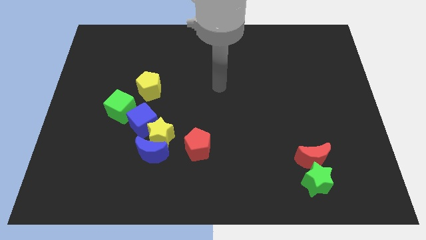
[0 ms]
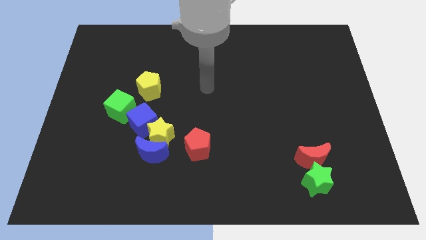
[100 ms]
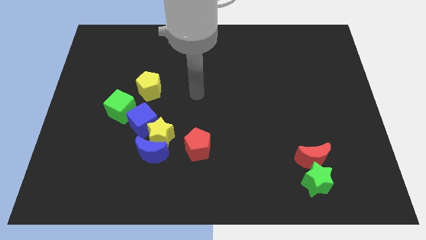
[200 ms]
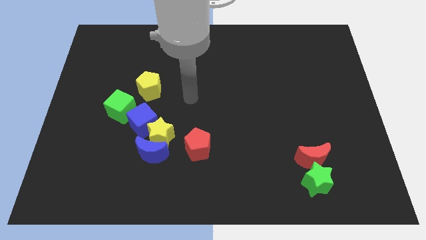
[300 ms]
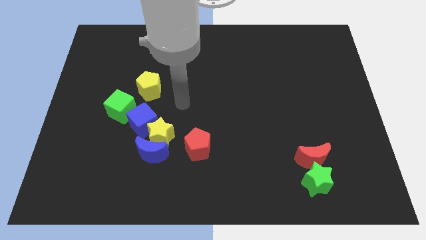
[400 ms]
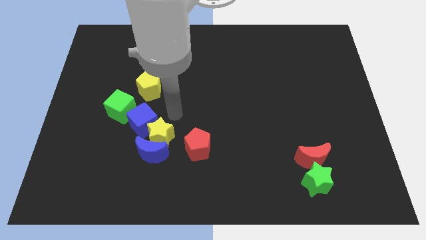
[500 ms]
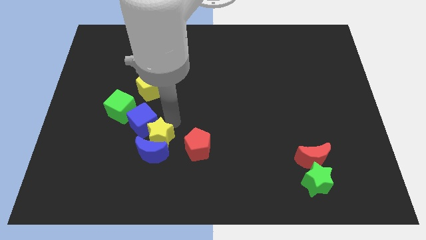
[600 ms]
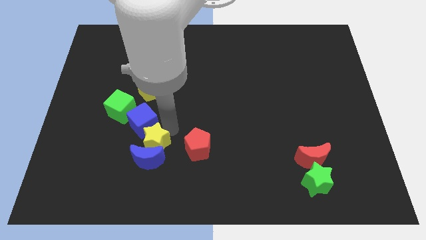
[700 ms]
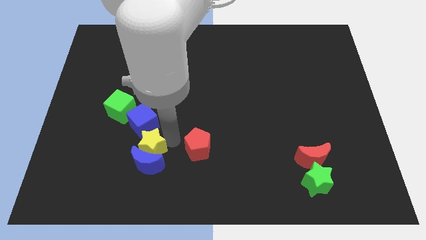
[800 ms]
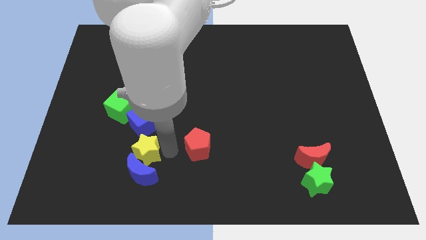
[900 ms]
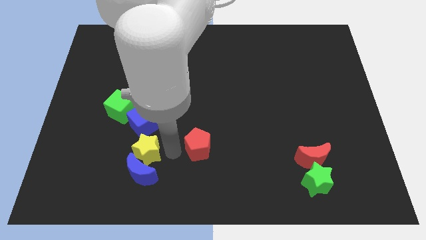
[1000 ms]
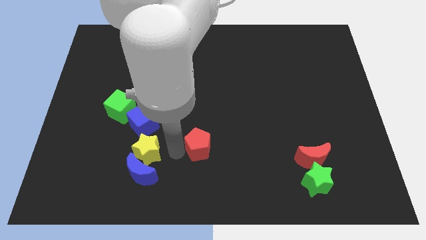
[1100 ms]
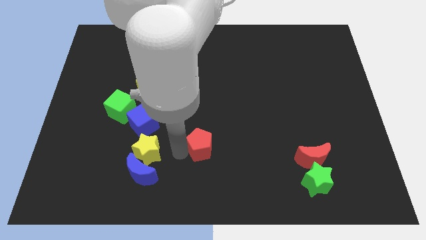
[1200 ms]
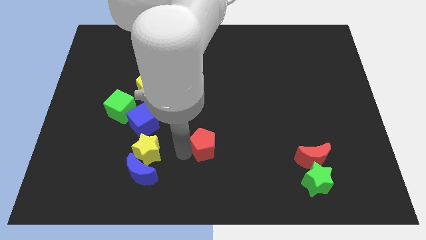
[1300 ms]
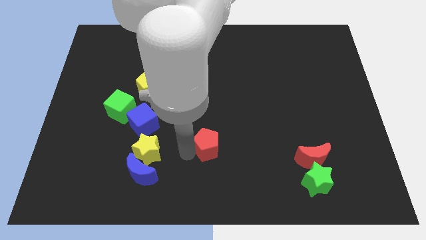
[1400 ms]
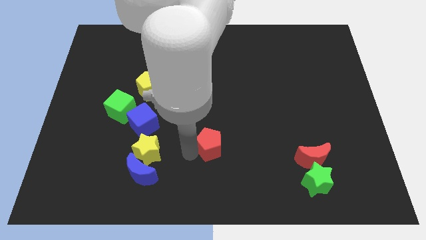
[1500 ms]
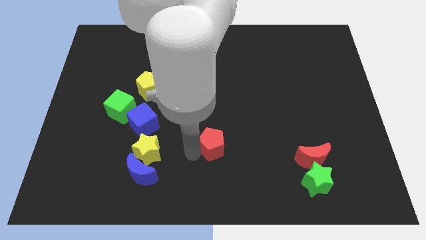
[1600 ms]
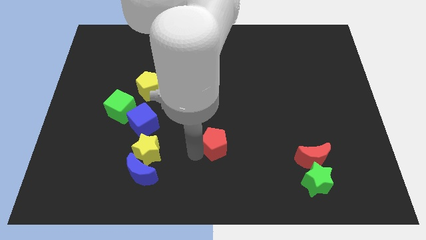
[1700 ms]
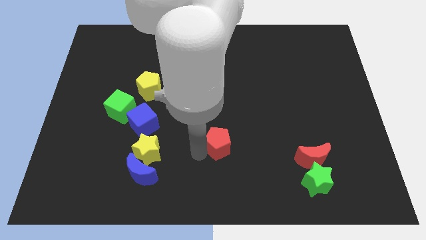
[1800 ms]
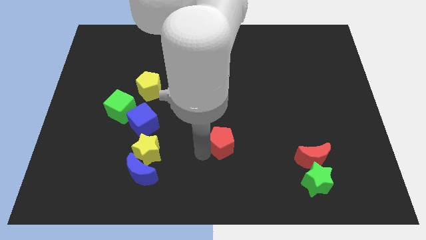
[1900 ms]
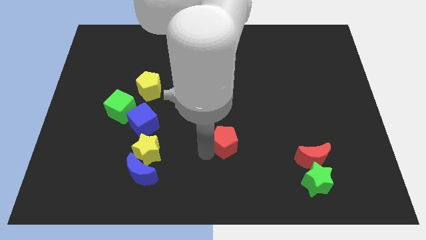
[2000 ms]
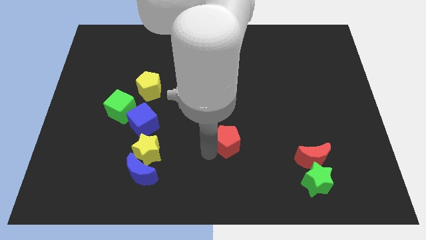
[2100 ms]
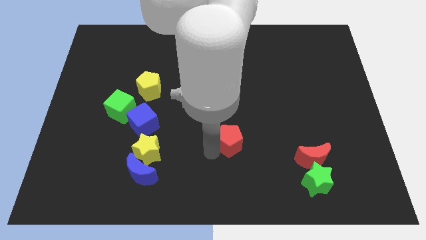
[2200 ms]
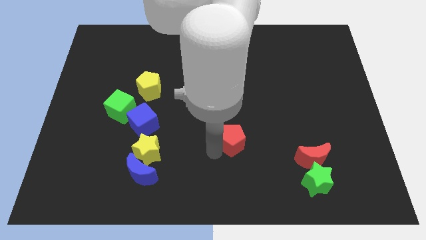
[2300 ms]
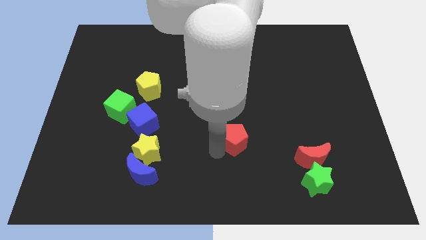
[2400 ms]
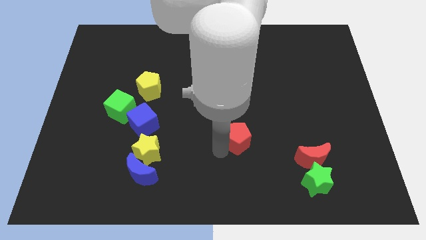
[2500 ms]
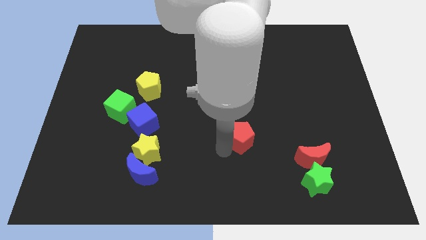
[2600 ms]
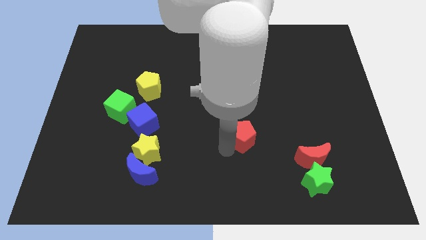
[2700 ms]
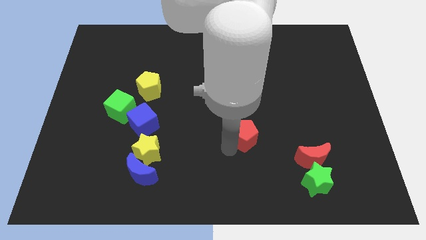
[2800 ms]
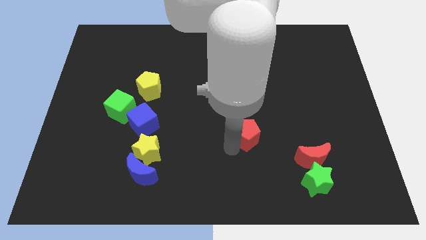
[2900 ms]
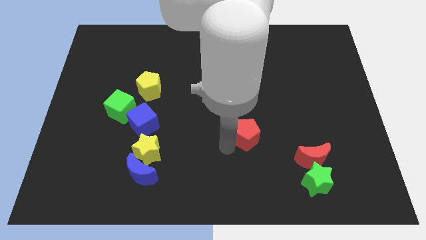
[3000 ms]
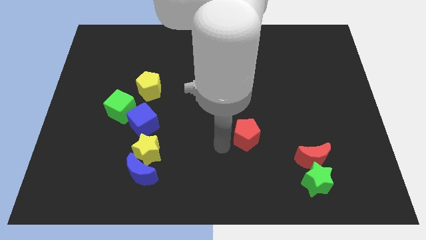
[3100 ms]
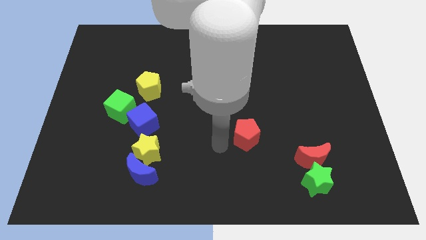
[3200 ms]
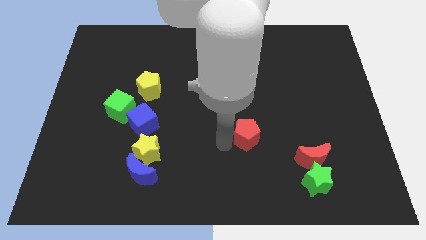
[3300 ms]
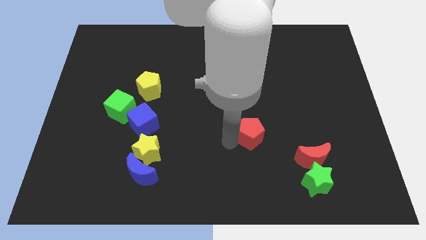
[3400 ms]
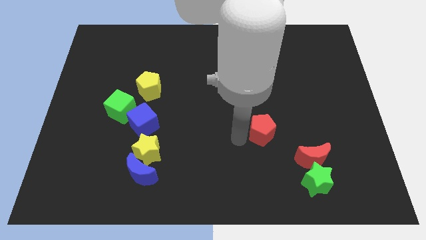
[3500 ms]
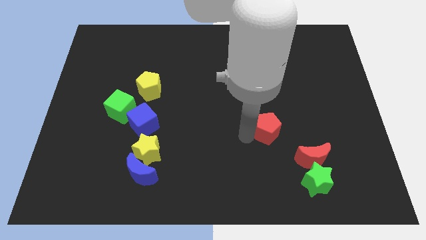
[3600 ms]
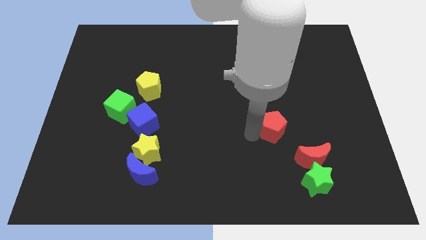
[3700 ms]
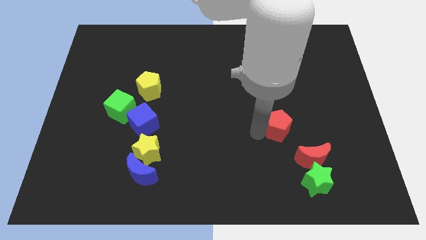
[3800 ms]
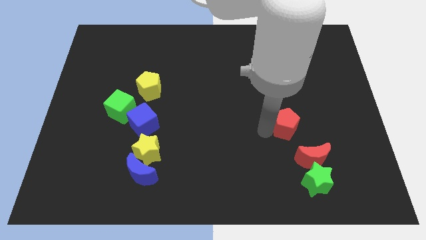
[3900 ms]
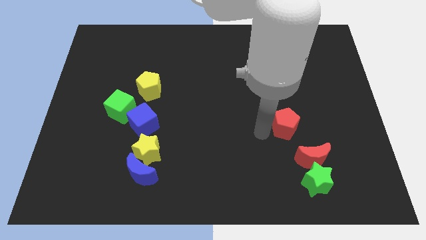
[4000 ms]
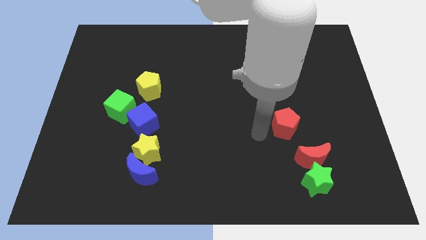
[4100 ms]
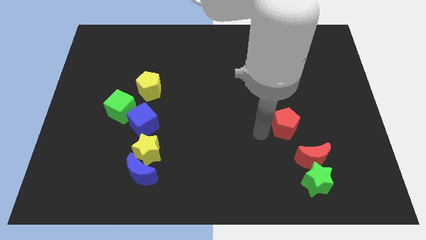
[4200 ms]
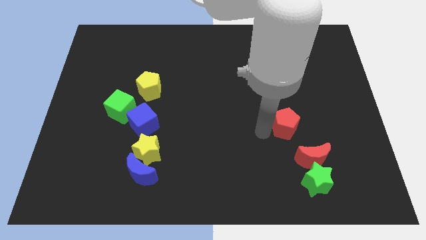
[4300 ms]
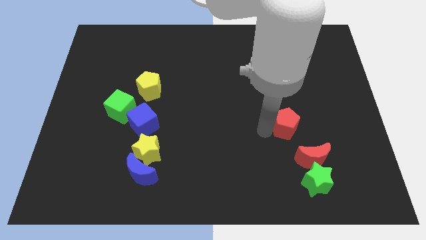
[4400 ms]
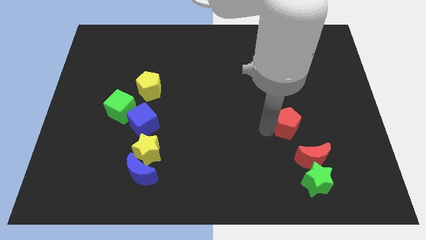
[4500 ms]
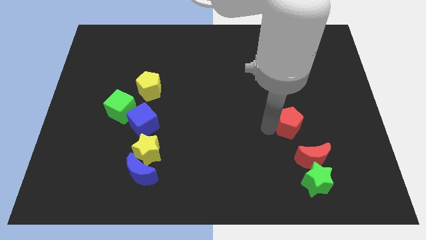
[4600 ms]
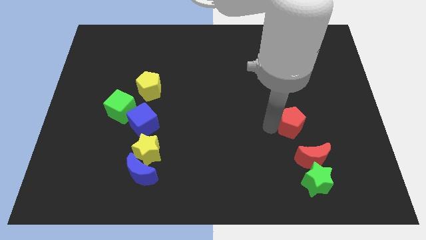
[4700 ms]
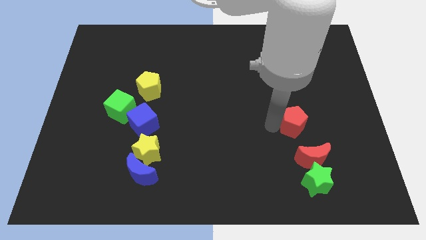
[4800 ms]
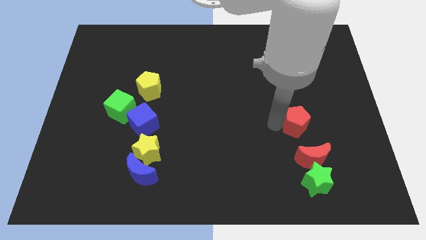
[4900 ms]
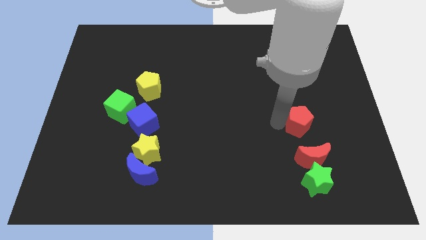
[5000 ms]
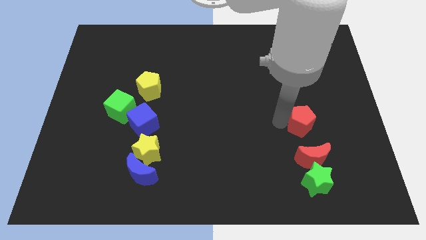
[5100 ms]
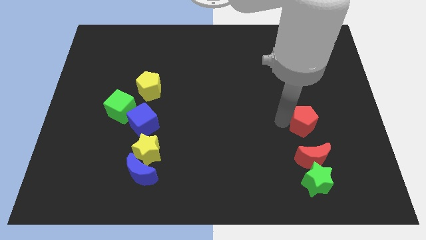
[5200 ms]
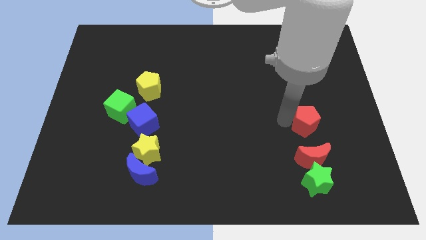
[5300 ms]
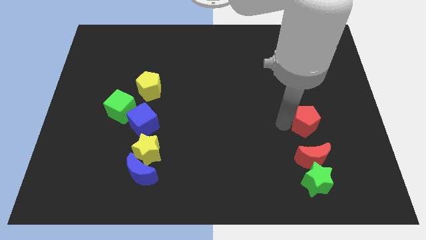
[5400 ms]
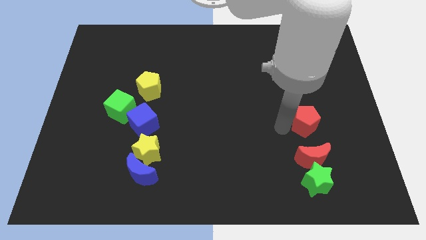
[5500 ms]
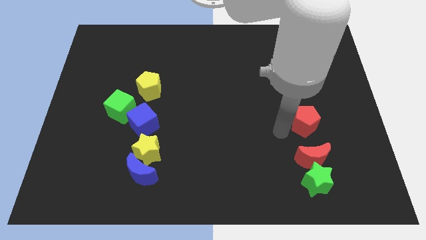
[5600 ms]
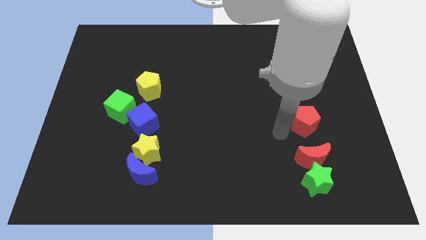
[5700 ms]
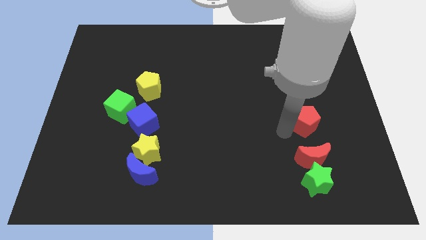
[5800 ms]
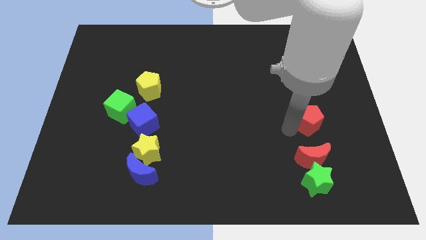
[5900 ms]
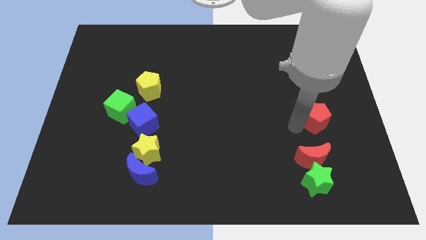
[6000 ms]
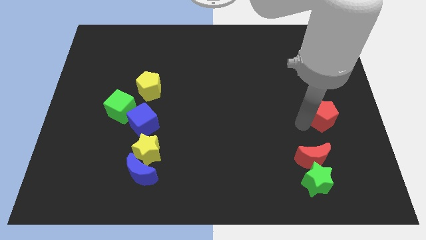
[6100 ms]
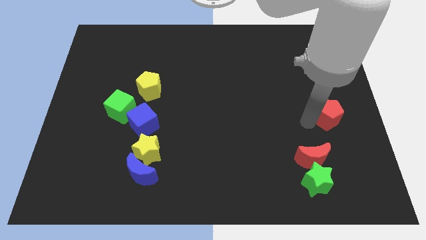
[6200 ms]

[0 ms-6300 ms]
move the red pentagon to the center right

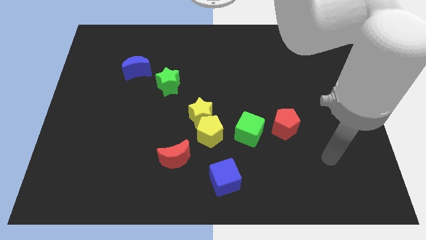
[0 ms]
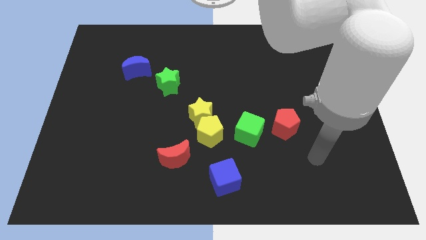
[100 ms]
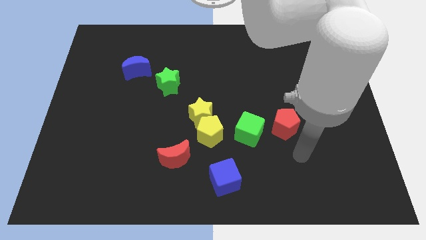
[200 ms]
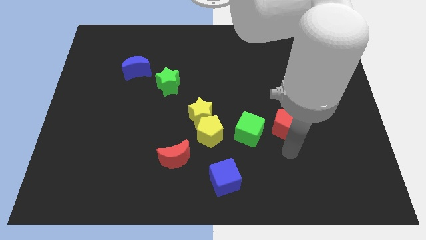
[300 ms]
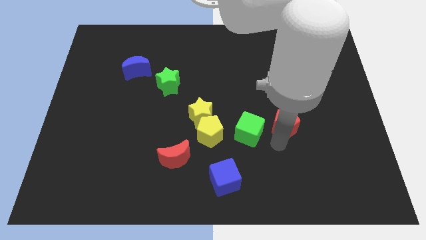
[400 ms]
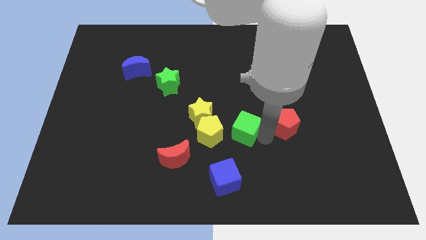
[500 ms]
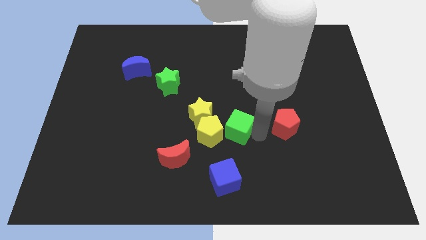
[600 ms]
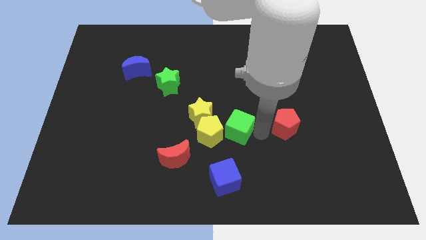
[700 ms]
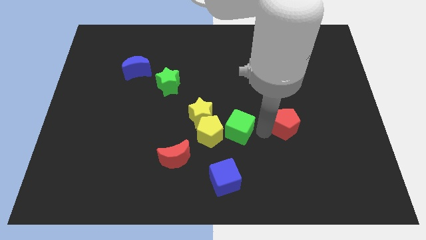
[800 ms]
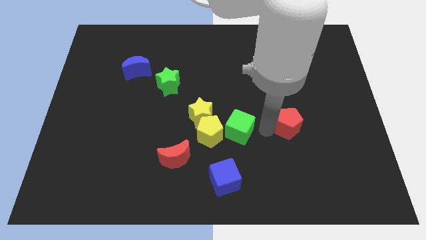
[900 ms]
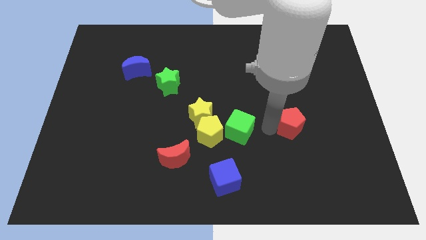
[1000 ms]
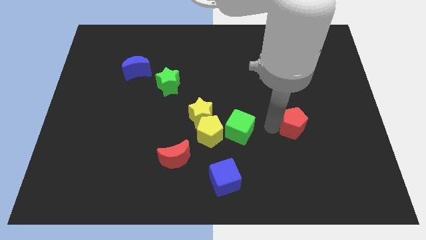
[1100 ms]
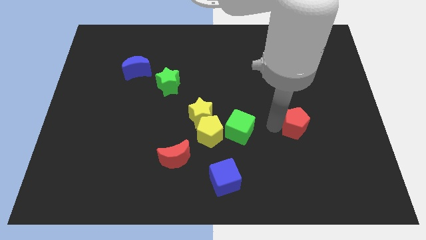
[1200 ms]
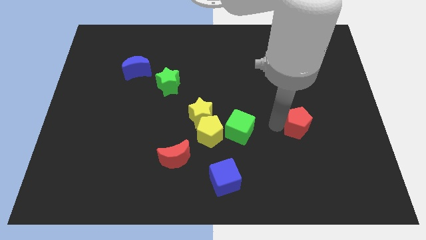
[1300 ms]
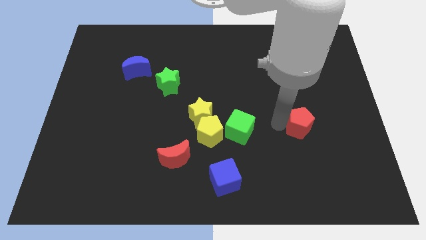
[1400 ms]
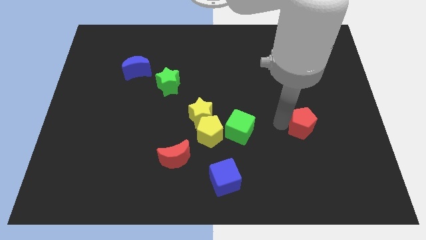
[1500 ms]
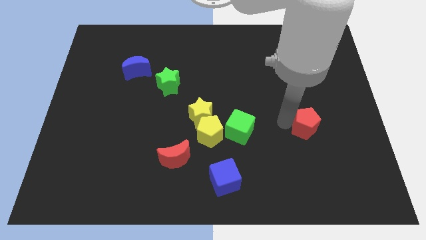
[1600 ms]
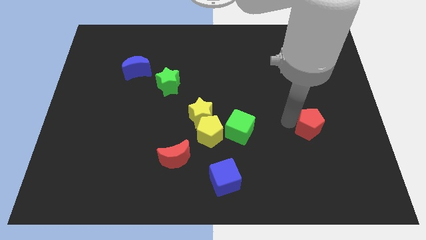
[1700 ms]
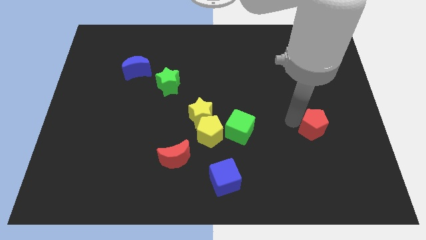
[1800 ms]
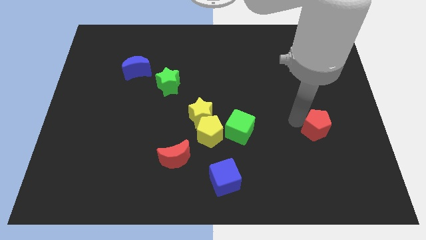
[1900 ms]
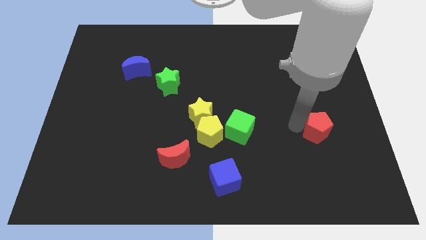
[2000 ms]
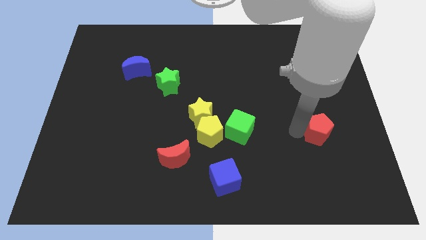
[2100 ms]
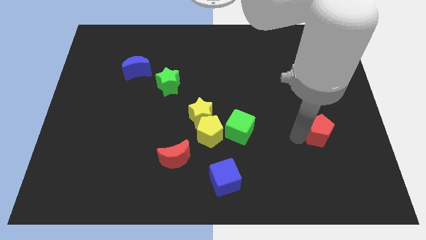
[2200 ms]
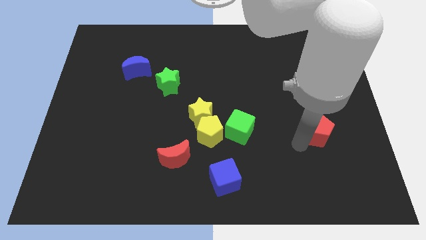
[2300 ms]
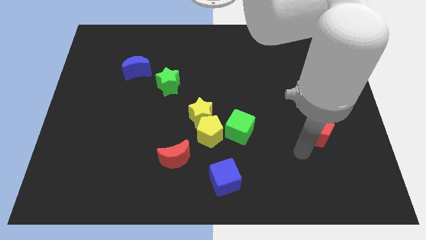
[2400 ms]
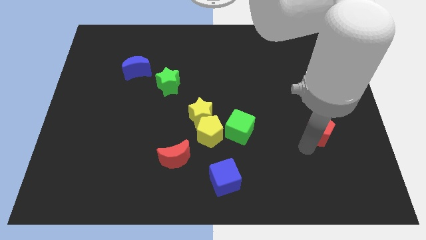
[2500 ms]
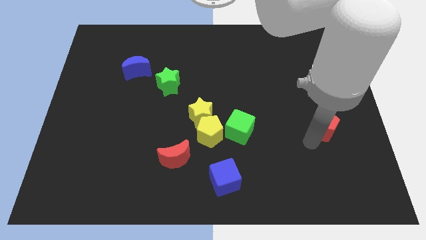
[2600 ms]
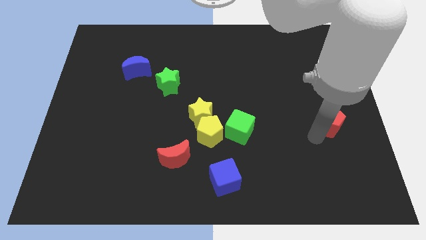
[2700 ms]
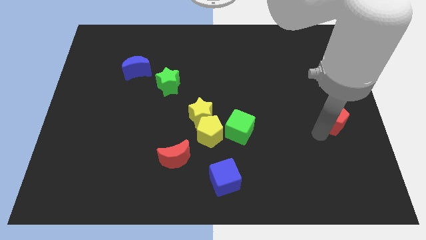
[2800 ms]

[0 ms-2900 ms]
push the red pentagon to the right side of the board
